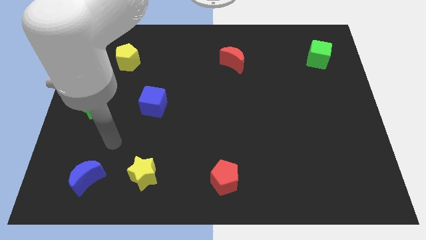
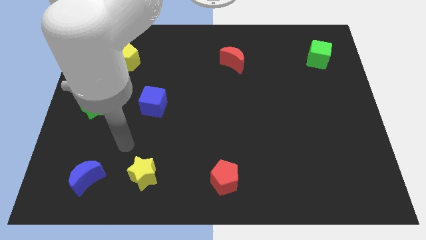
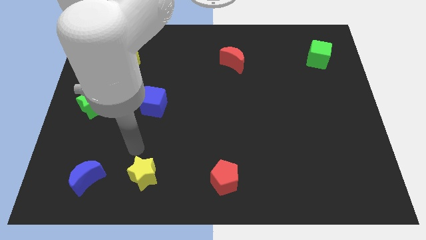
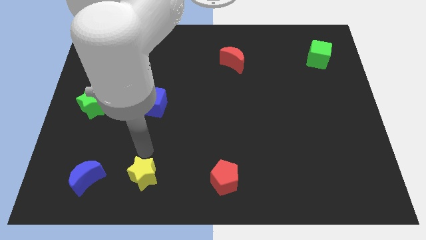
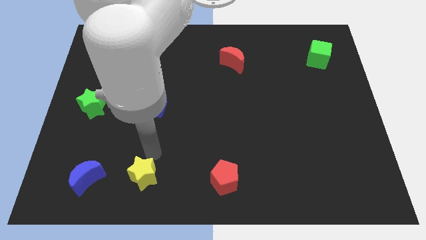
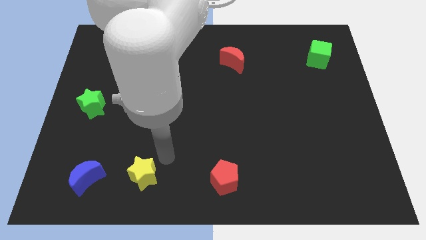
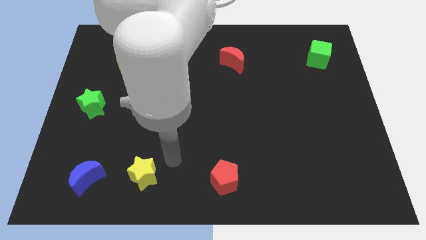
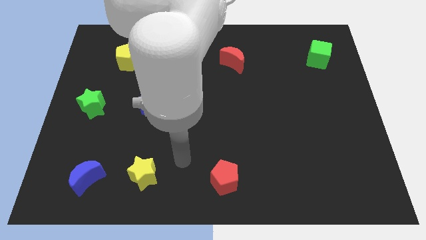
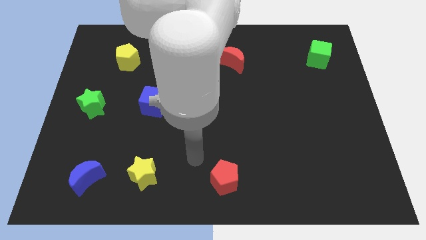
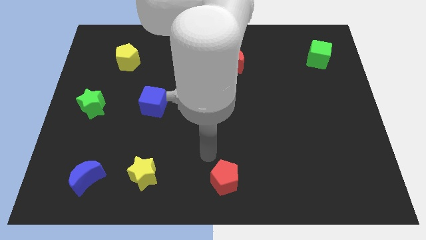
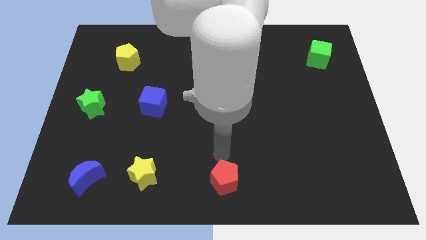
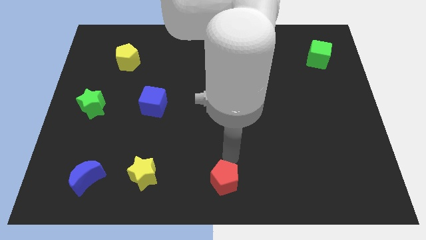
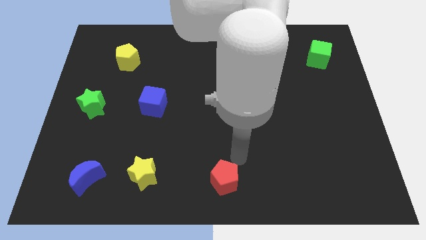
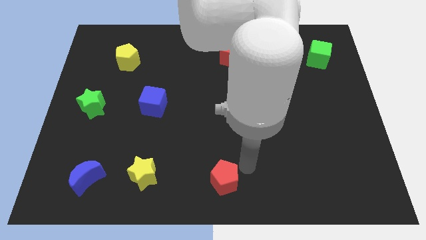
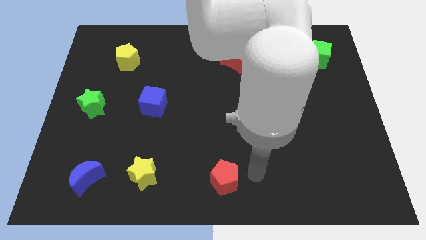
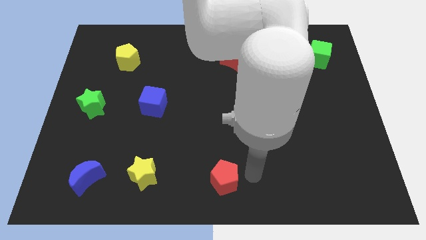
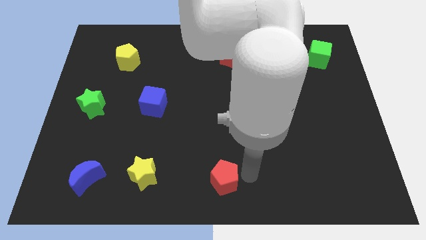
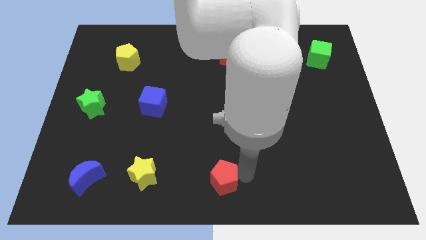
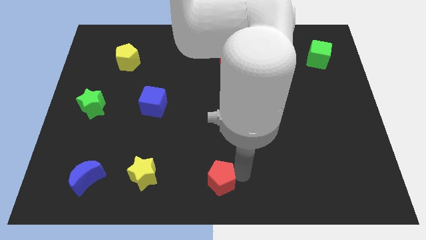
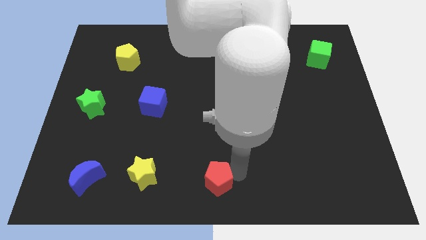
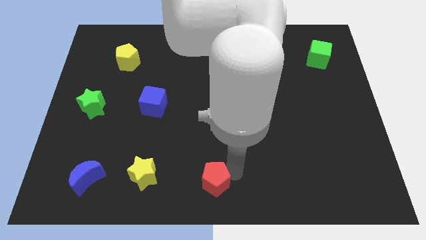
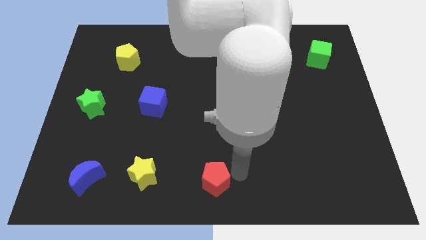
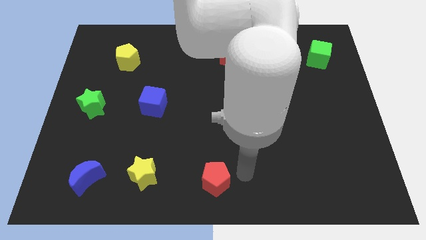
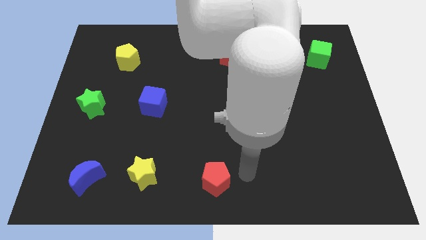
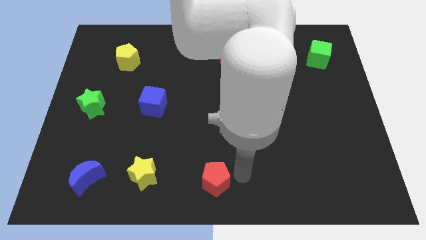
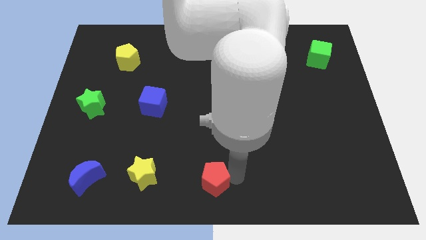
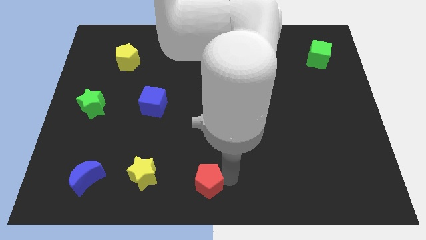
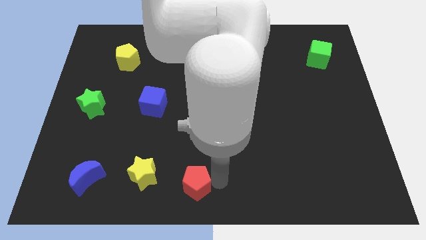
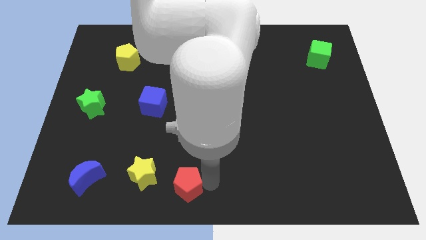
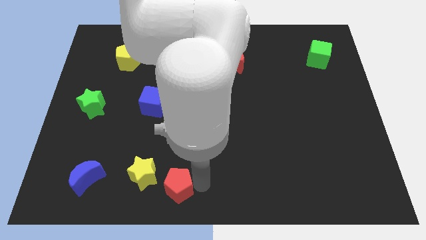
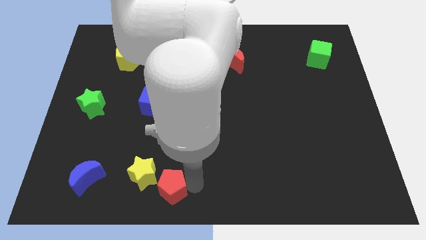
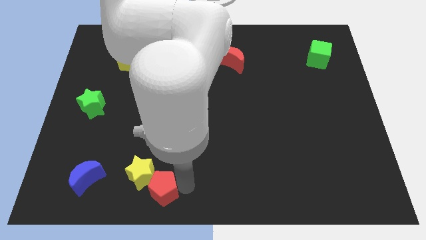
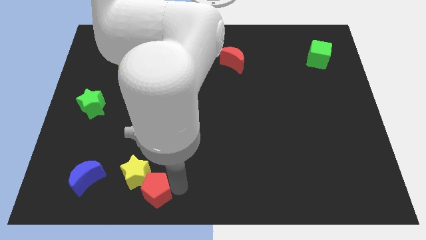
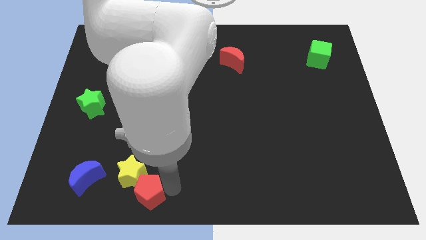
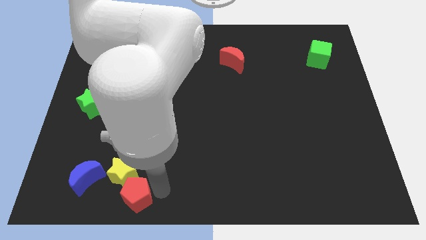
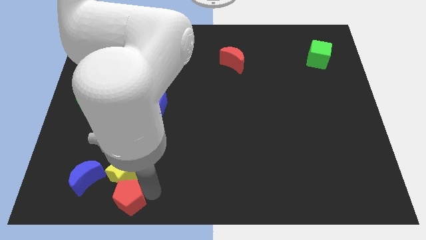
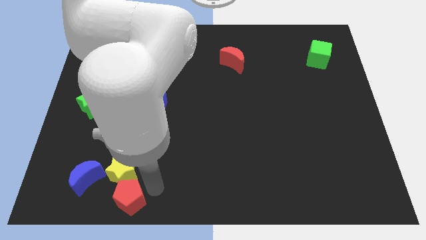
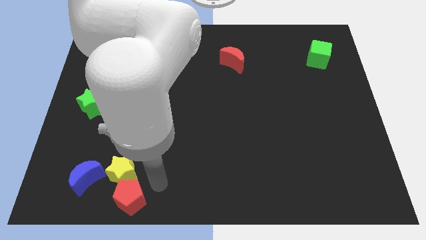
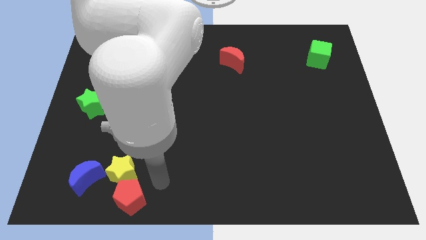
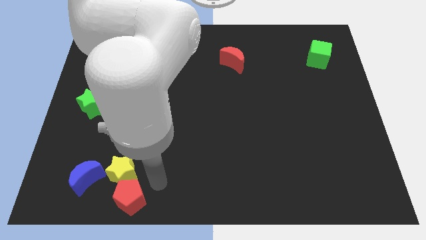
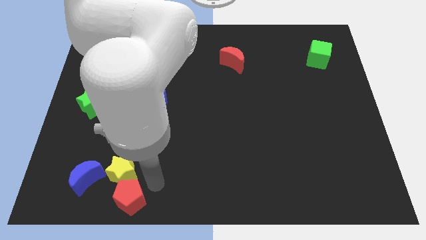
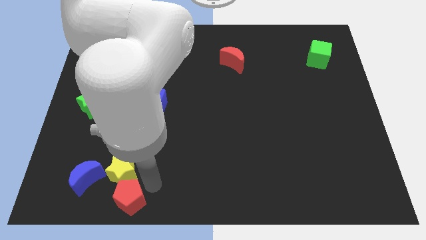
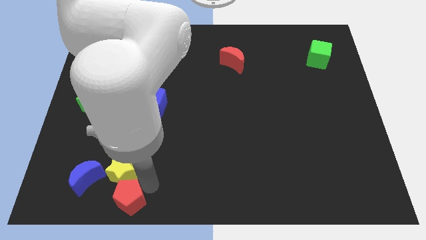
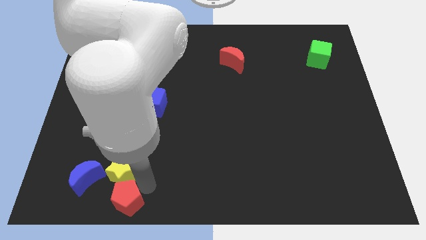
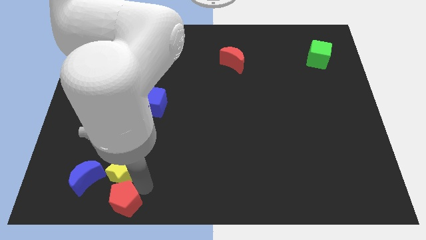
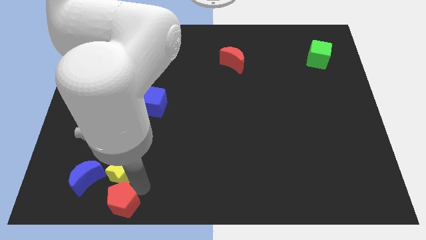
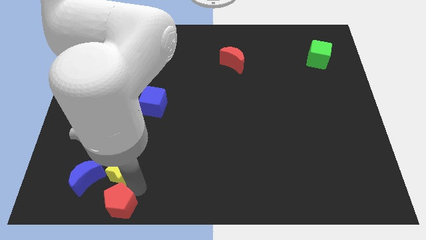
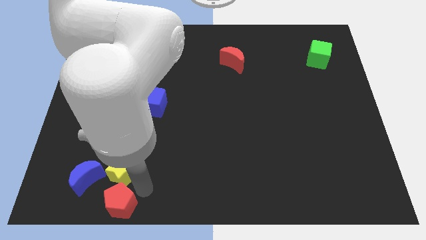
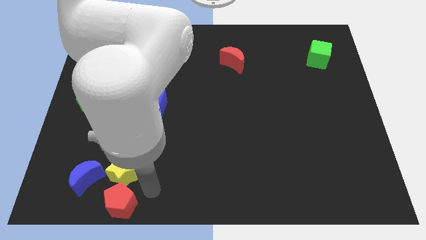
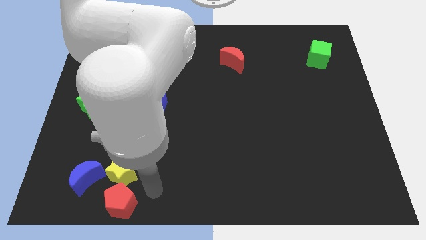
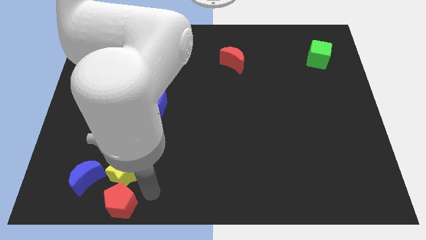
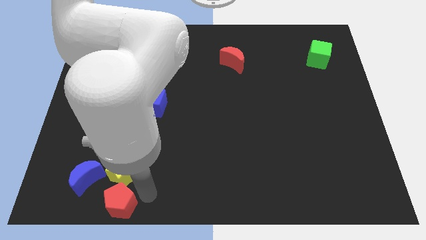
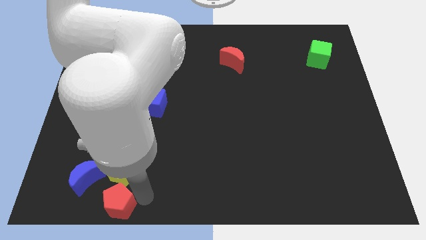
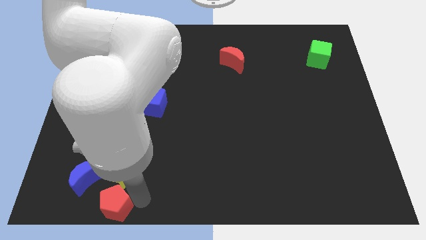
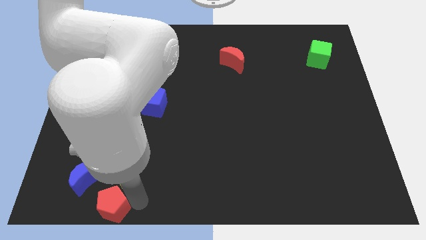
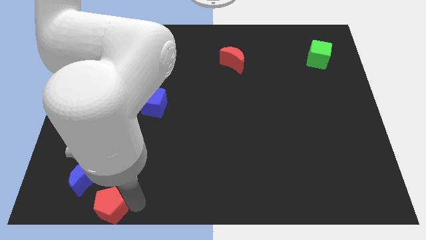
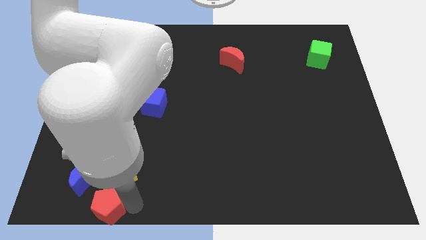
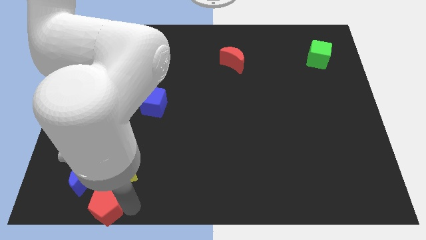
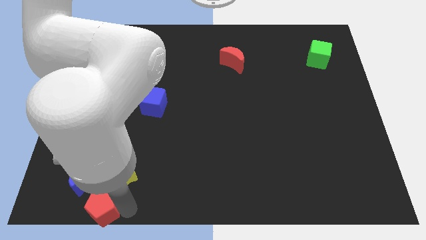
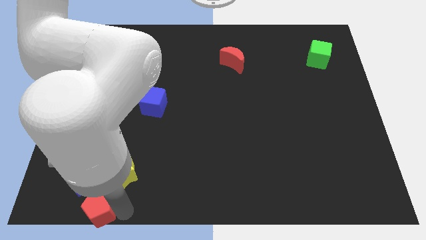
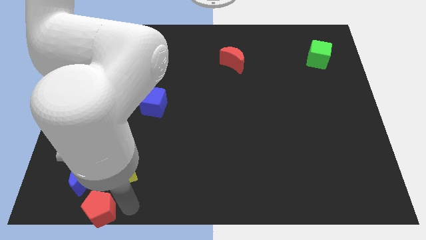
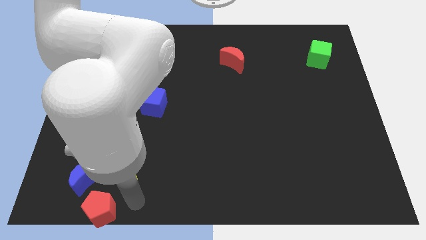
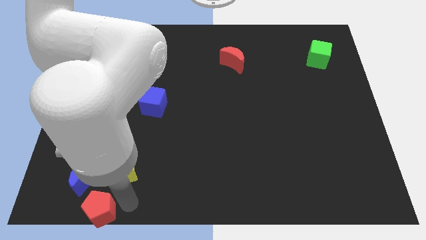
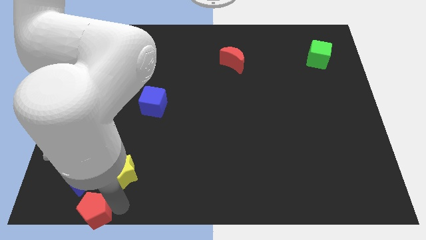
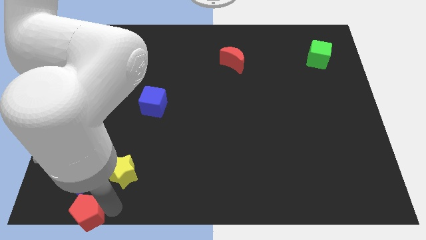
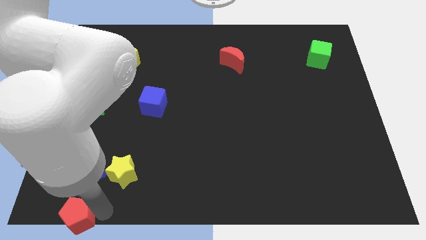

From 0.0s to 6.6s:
move the red pentagon to the lower left corner
